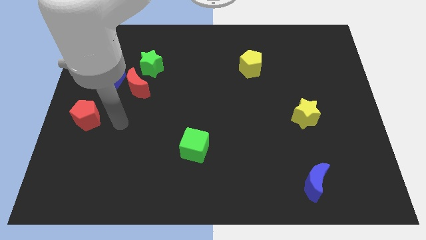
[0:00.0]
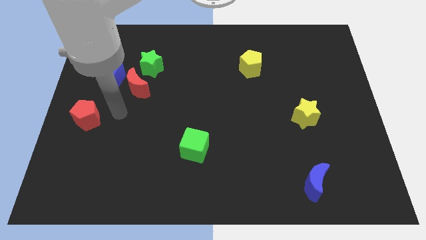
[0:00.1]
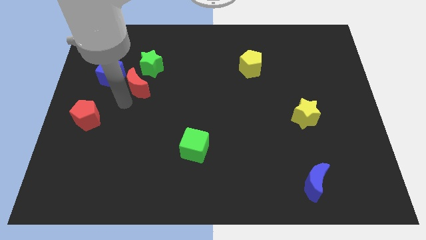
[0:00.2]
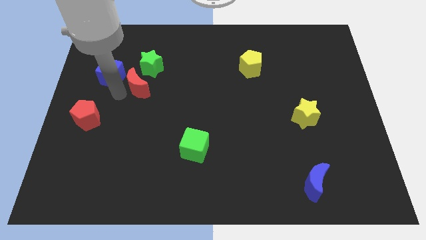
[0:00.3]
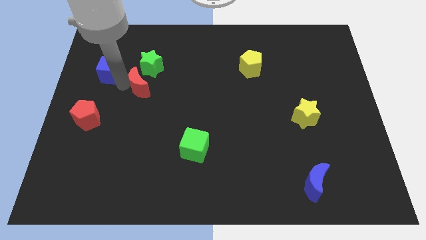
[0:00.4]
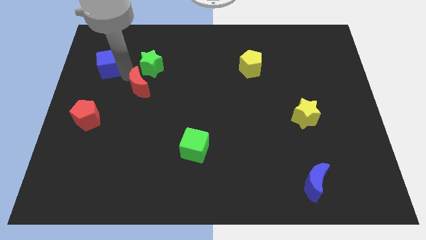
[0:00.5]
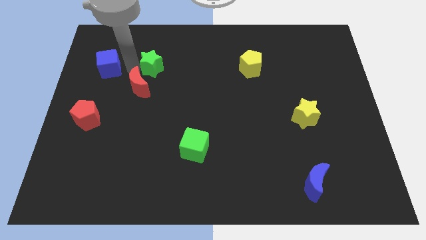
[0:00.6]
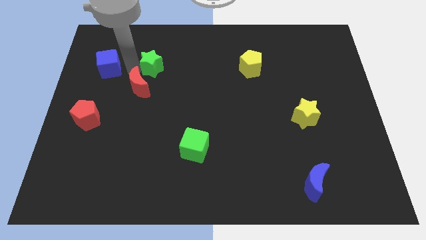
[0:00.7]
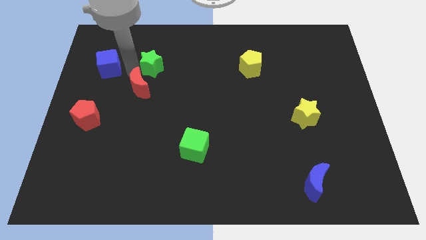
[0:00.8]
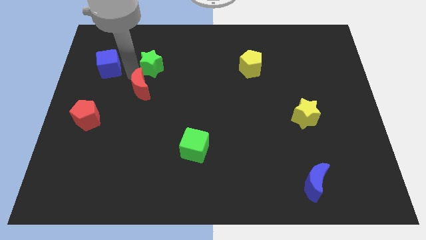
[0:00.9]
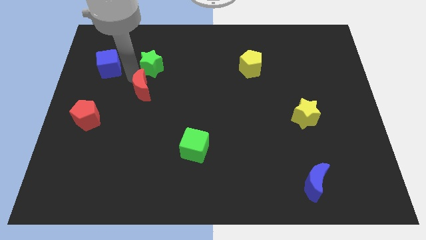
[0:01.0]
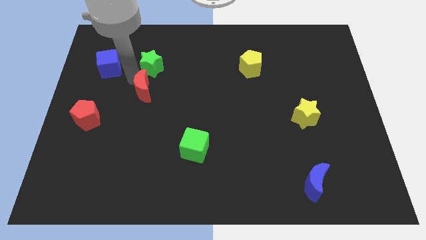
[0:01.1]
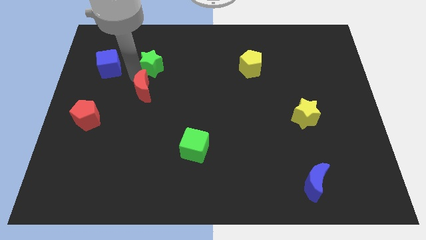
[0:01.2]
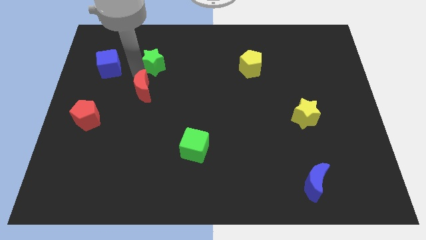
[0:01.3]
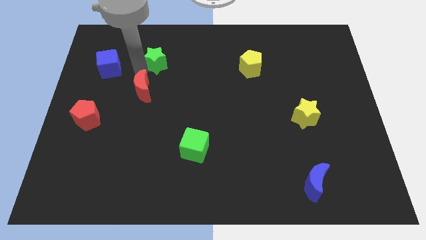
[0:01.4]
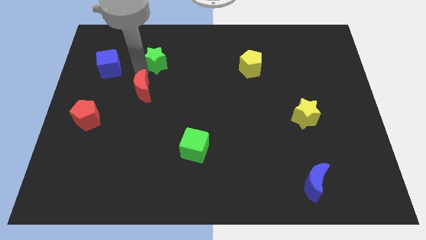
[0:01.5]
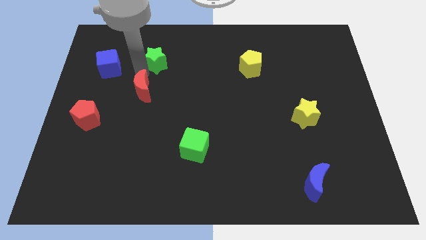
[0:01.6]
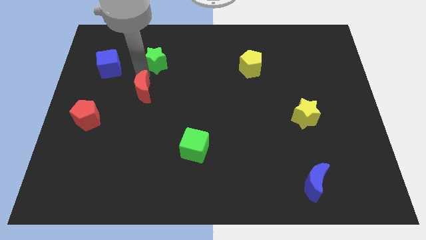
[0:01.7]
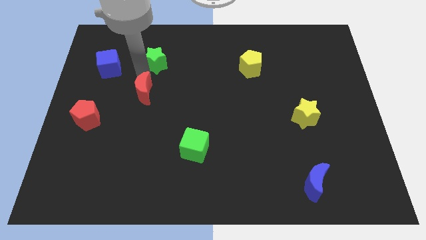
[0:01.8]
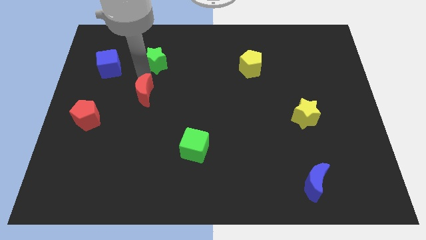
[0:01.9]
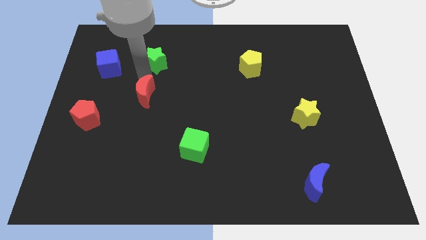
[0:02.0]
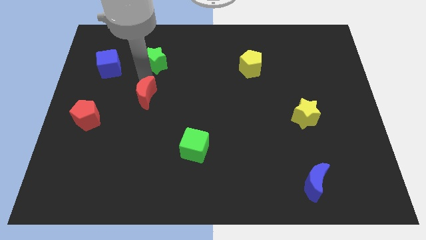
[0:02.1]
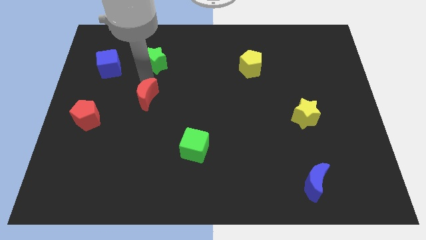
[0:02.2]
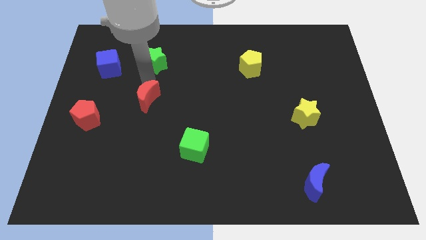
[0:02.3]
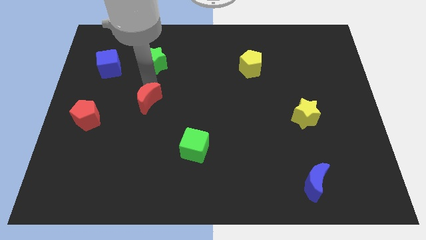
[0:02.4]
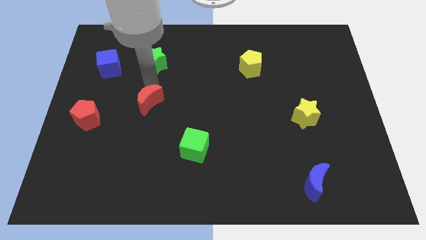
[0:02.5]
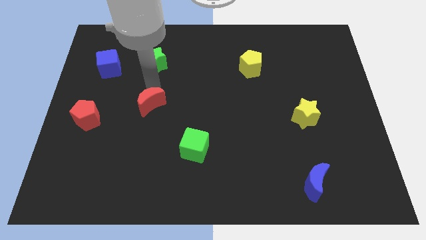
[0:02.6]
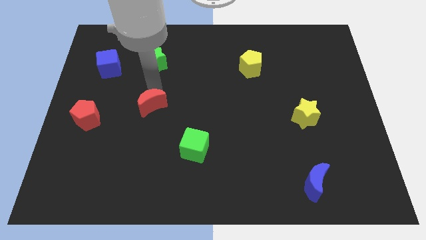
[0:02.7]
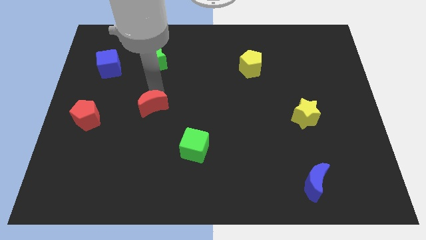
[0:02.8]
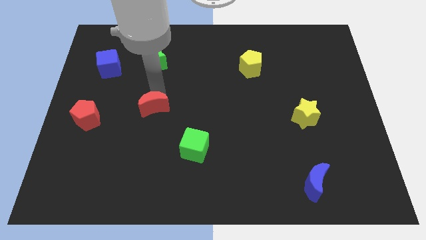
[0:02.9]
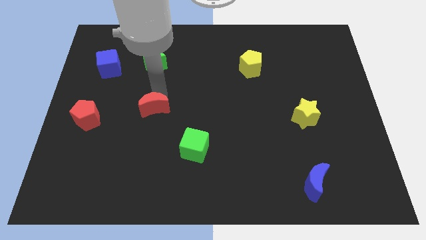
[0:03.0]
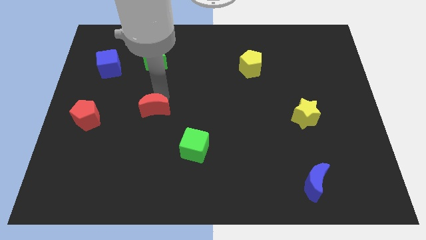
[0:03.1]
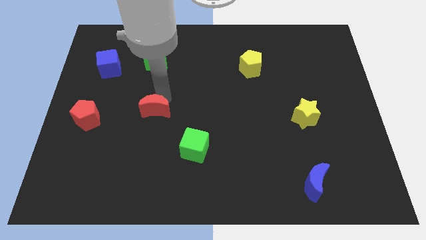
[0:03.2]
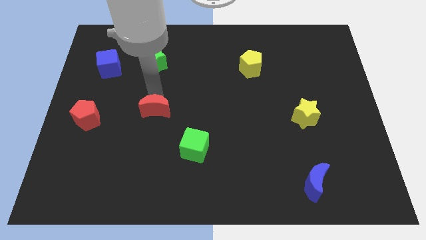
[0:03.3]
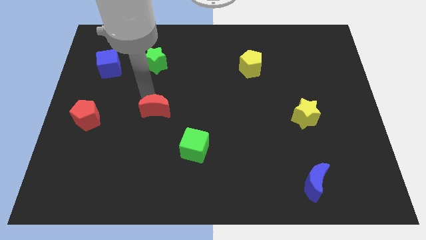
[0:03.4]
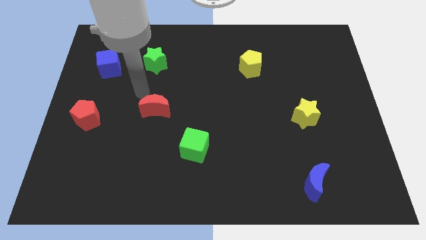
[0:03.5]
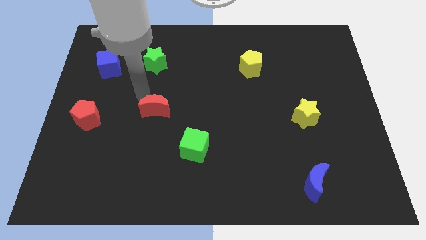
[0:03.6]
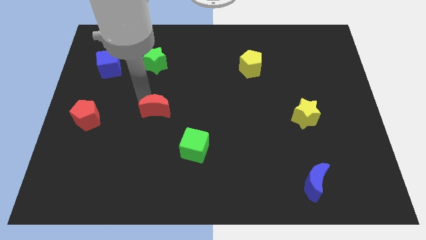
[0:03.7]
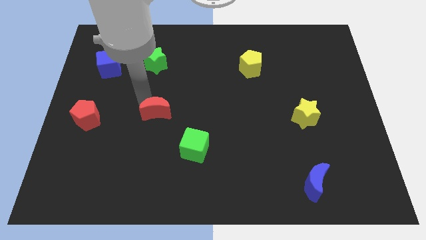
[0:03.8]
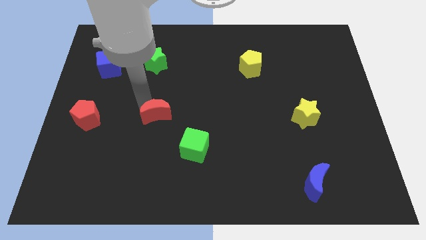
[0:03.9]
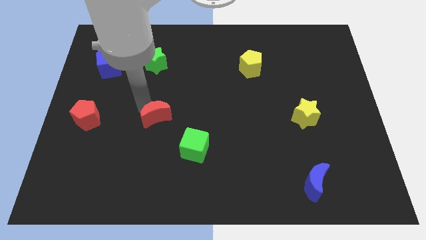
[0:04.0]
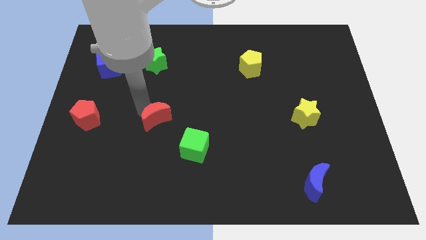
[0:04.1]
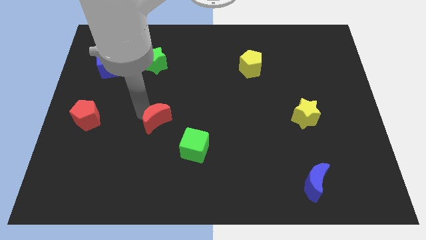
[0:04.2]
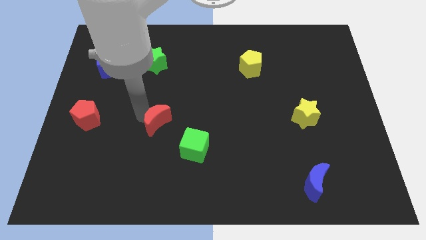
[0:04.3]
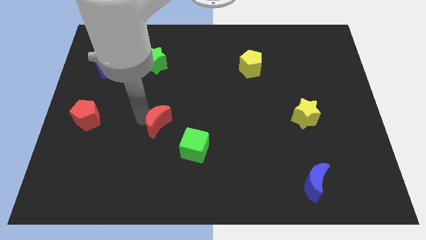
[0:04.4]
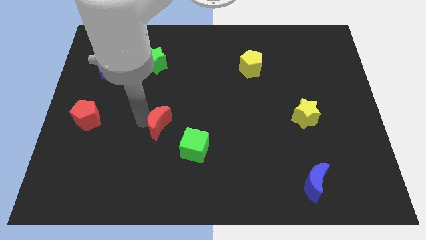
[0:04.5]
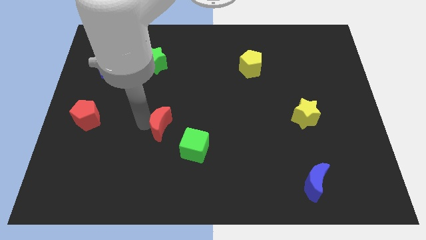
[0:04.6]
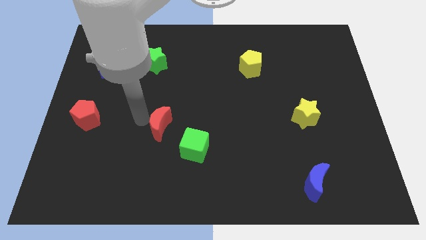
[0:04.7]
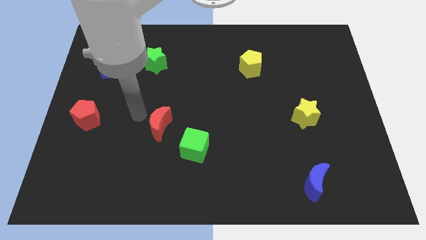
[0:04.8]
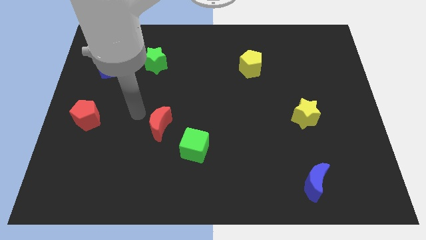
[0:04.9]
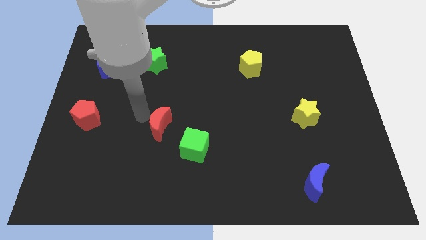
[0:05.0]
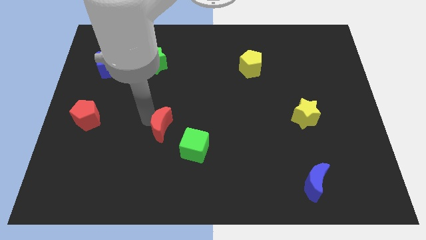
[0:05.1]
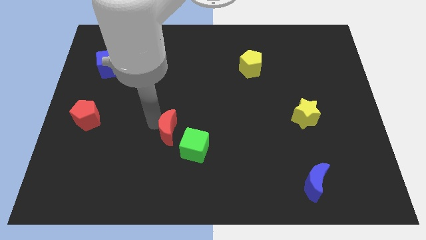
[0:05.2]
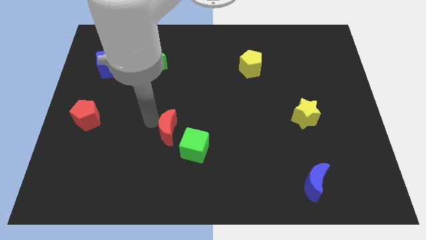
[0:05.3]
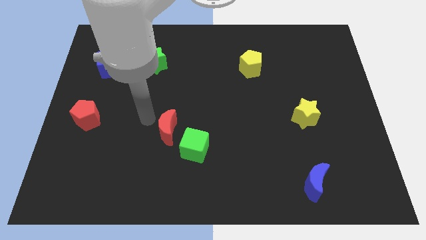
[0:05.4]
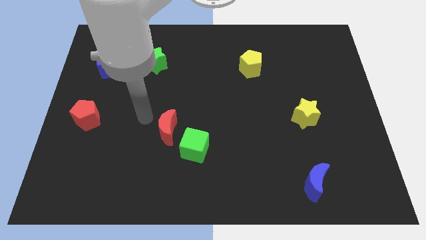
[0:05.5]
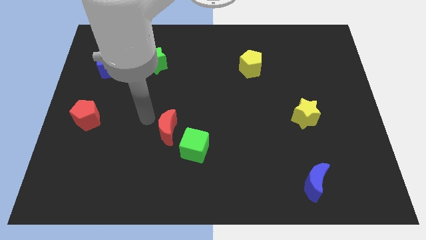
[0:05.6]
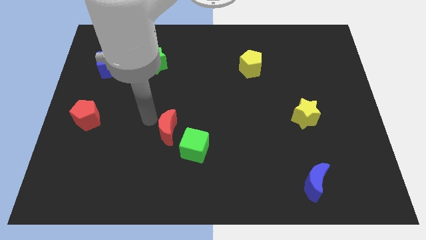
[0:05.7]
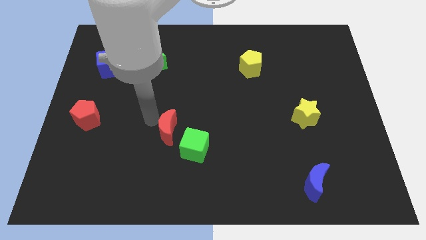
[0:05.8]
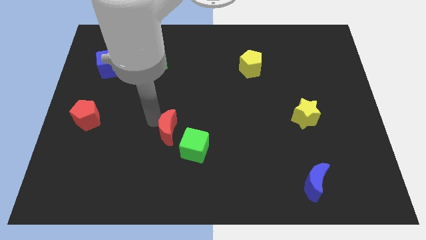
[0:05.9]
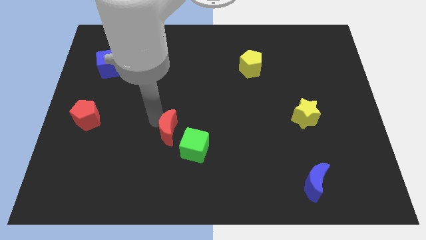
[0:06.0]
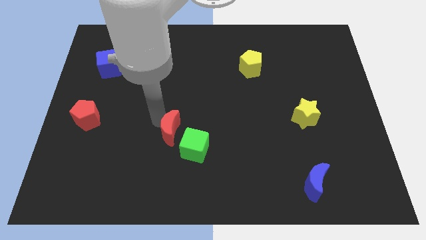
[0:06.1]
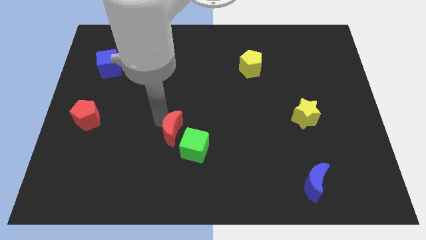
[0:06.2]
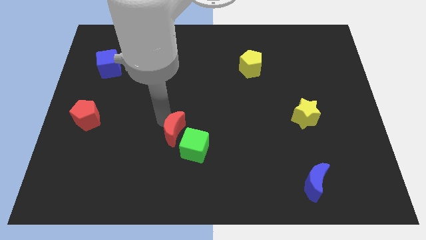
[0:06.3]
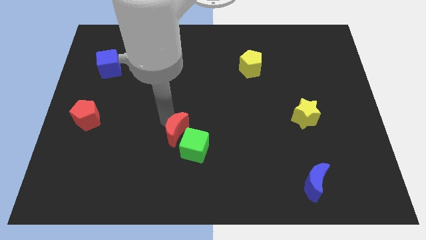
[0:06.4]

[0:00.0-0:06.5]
move the red moon to the green cube
